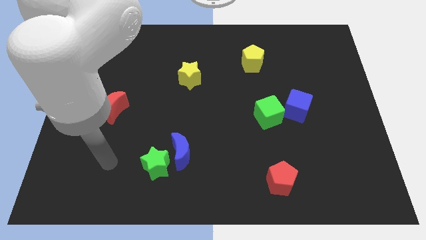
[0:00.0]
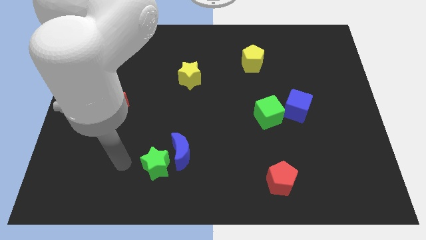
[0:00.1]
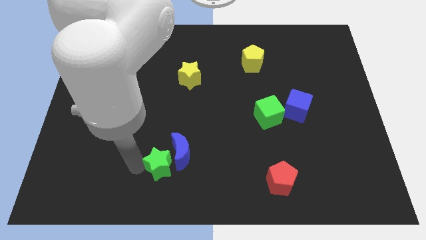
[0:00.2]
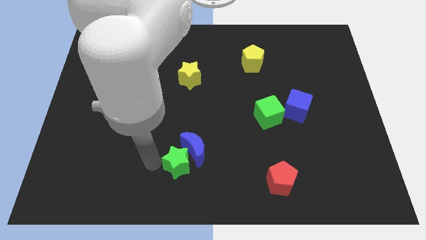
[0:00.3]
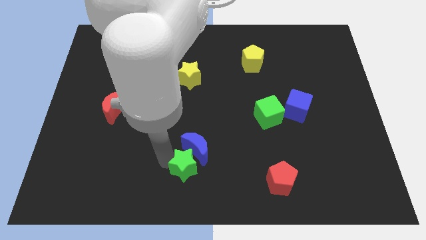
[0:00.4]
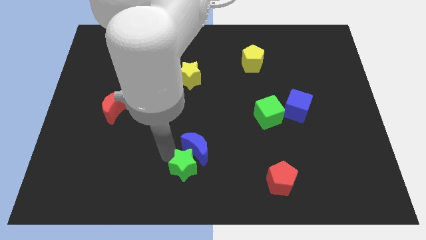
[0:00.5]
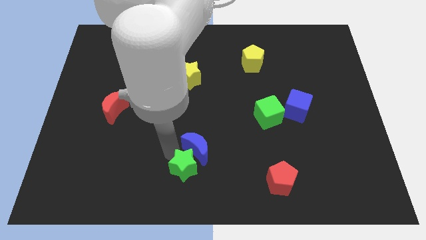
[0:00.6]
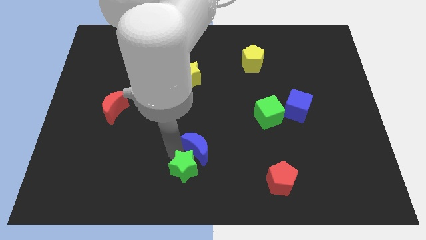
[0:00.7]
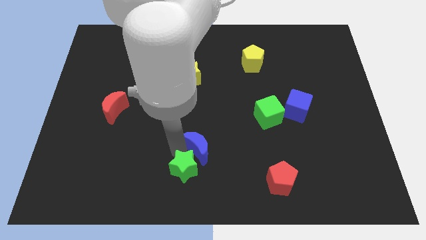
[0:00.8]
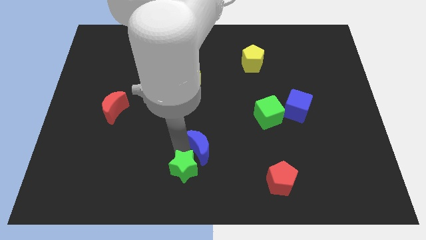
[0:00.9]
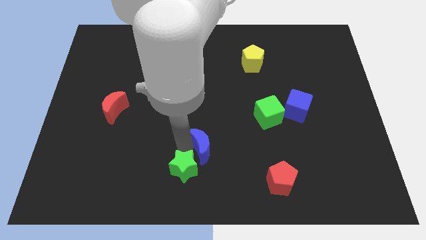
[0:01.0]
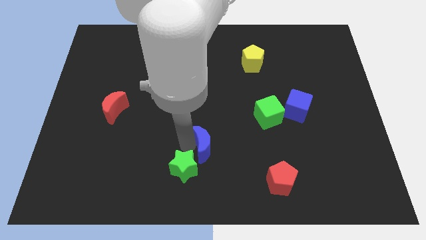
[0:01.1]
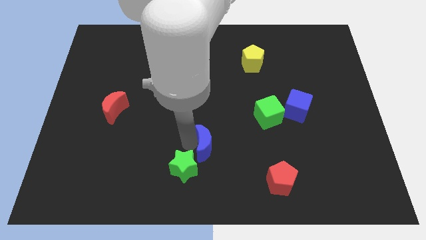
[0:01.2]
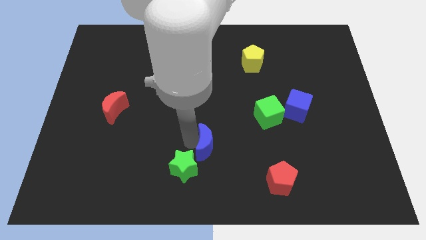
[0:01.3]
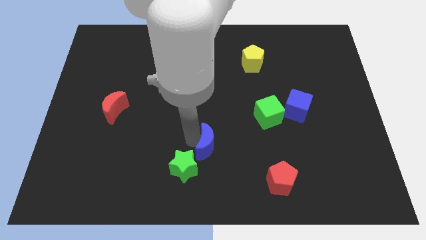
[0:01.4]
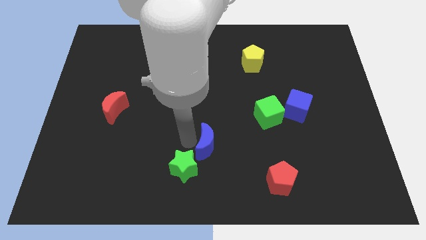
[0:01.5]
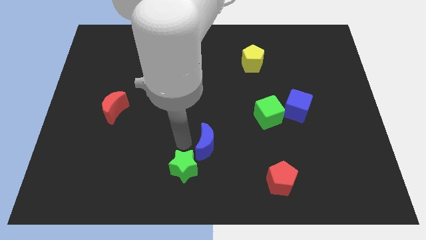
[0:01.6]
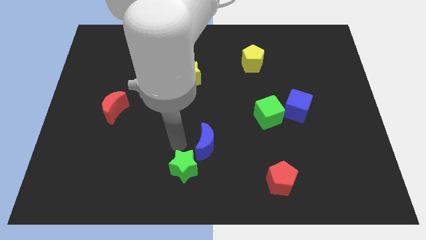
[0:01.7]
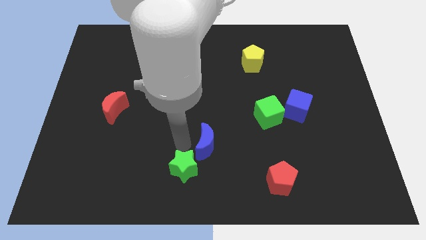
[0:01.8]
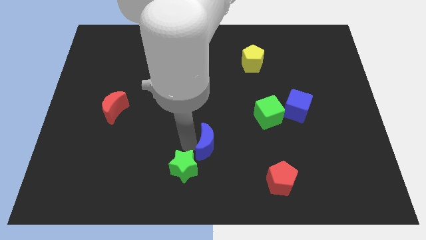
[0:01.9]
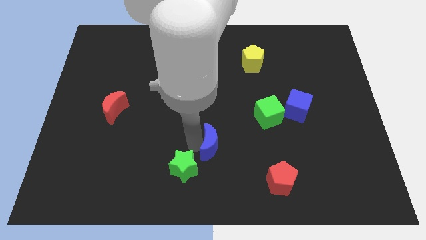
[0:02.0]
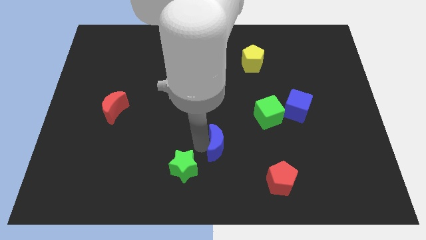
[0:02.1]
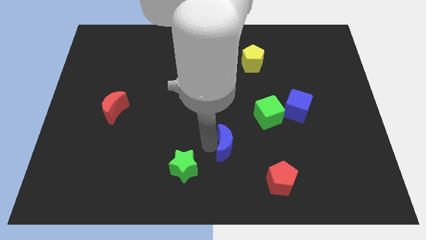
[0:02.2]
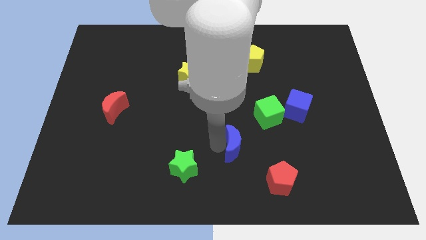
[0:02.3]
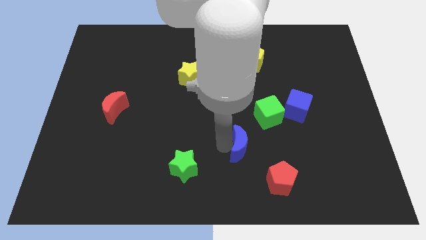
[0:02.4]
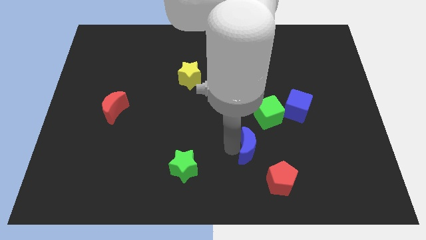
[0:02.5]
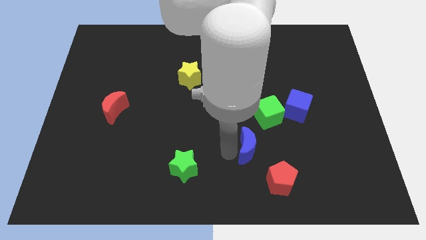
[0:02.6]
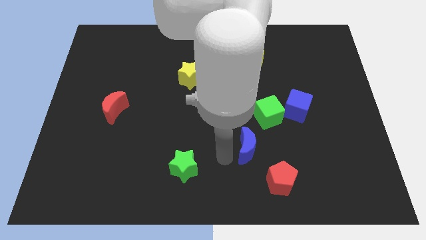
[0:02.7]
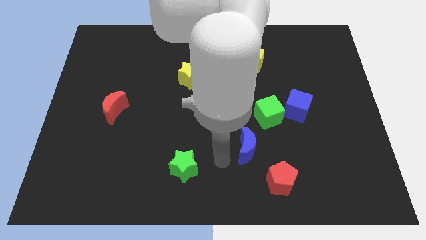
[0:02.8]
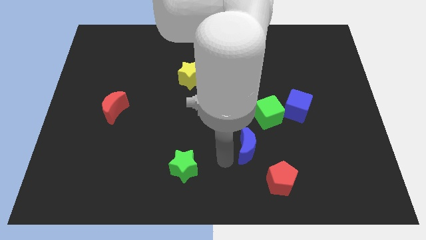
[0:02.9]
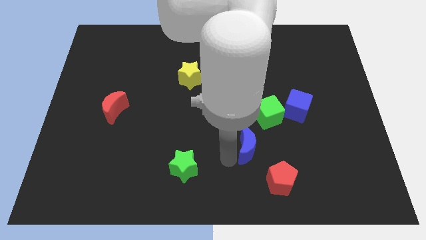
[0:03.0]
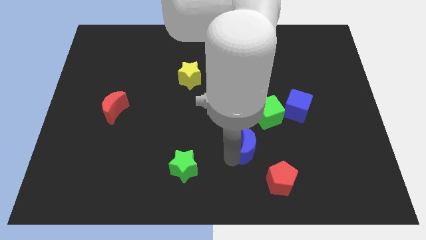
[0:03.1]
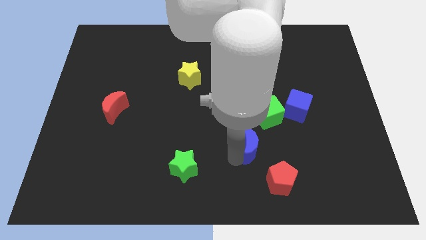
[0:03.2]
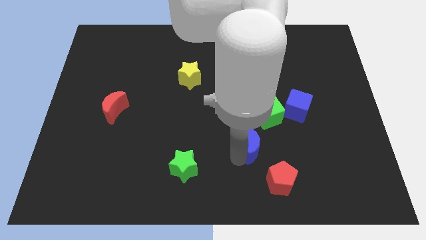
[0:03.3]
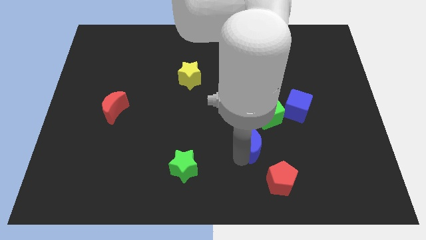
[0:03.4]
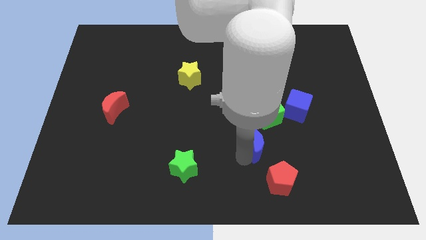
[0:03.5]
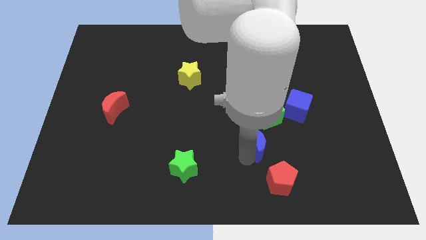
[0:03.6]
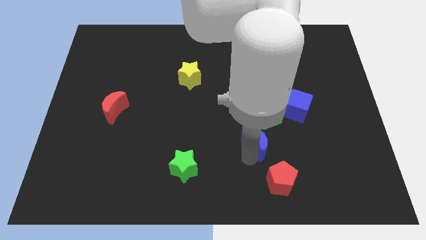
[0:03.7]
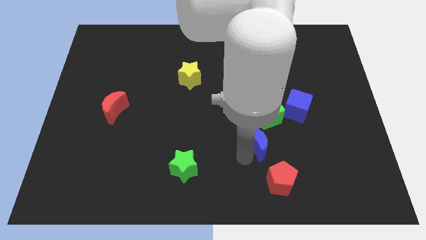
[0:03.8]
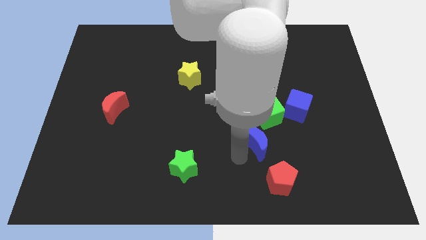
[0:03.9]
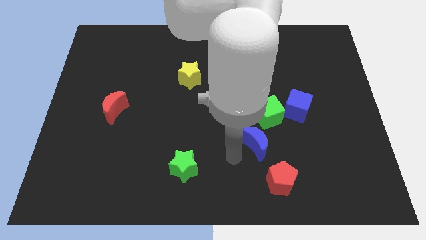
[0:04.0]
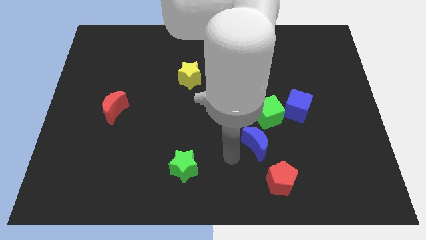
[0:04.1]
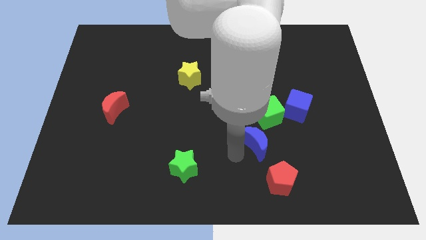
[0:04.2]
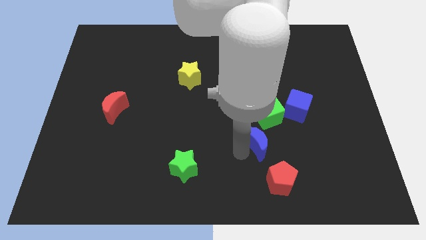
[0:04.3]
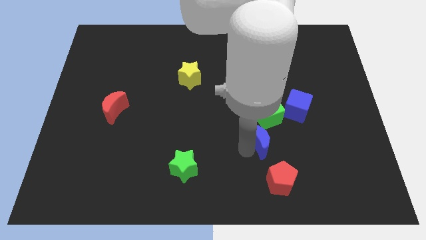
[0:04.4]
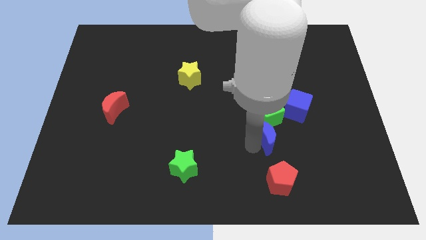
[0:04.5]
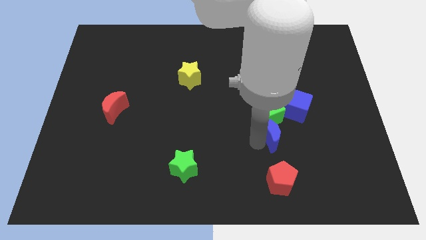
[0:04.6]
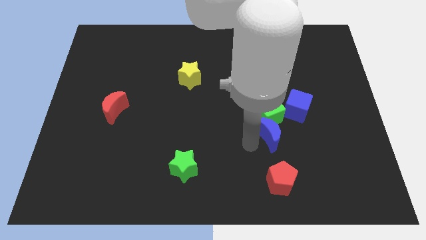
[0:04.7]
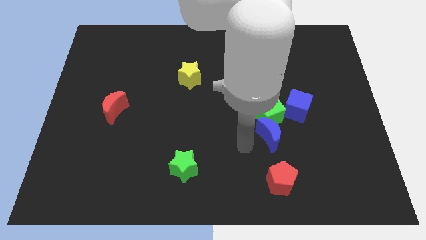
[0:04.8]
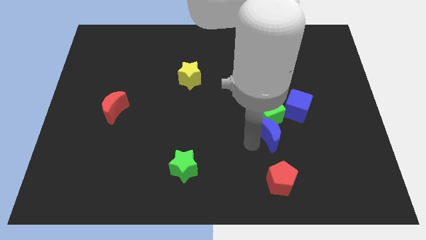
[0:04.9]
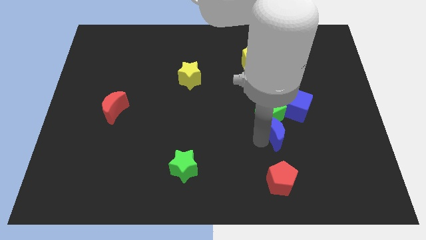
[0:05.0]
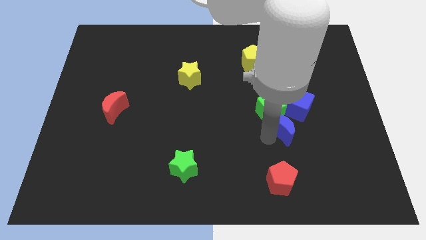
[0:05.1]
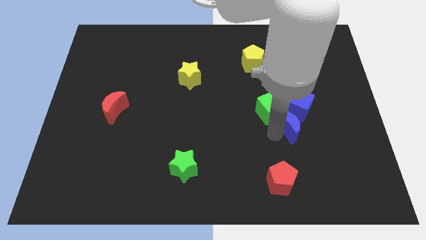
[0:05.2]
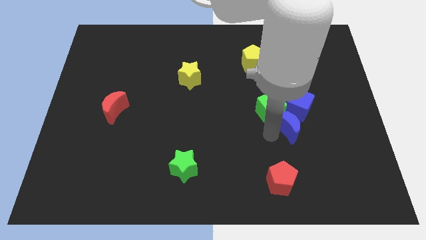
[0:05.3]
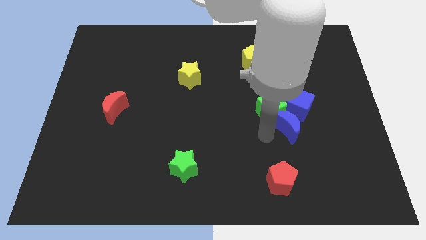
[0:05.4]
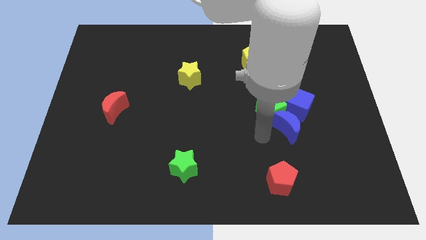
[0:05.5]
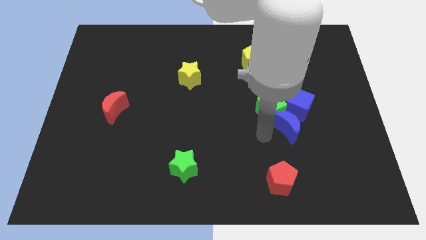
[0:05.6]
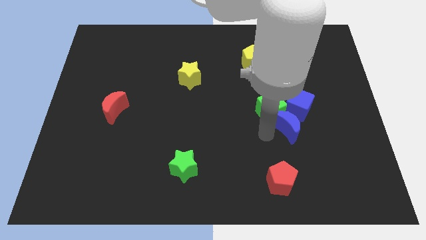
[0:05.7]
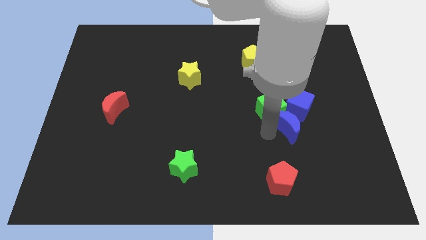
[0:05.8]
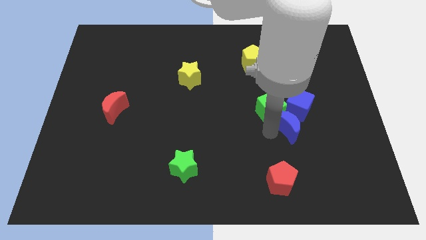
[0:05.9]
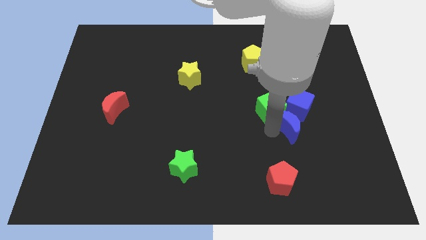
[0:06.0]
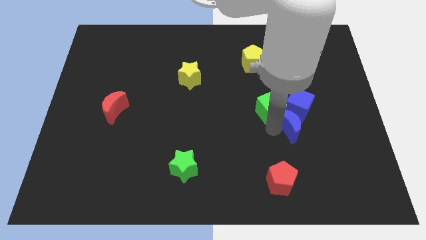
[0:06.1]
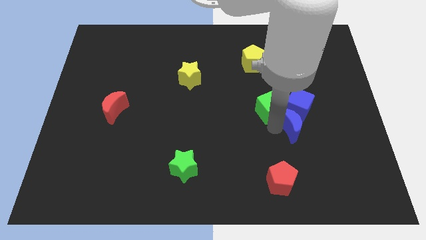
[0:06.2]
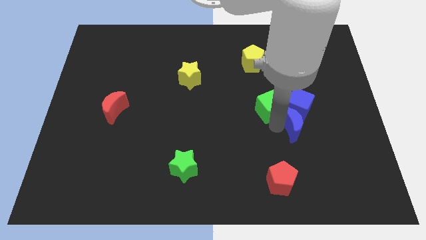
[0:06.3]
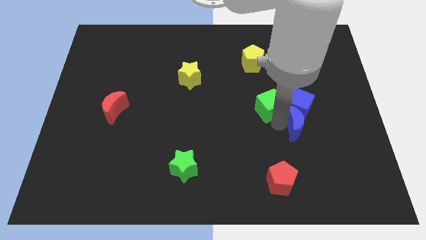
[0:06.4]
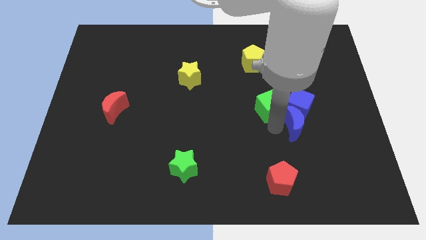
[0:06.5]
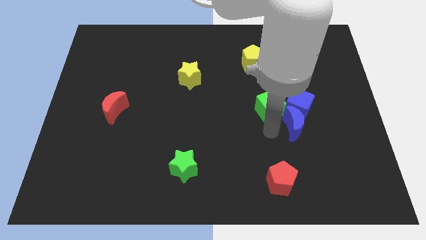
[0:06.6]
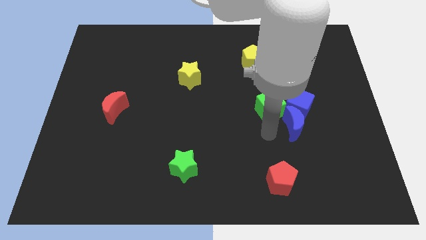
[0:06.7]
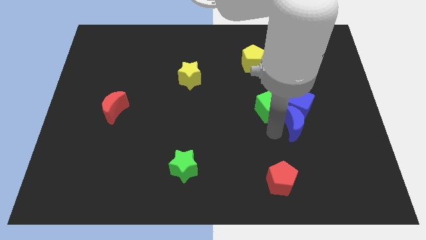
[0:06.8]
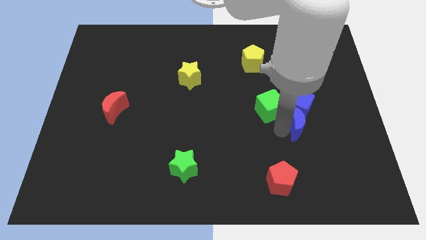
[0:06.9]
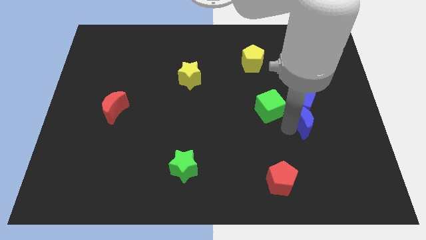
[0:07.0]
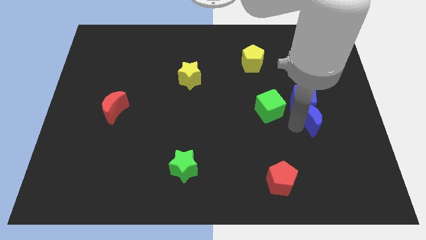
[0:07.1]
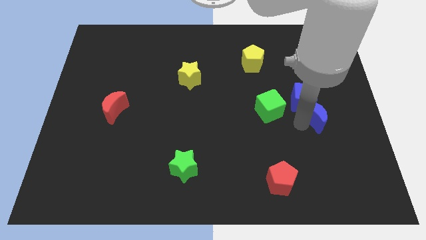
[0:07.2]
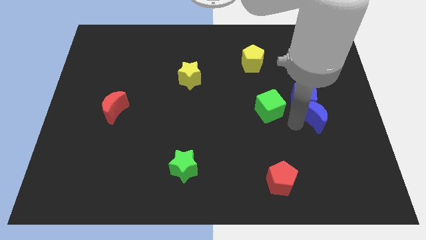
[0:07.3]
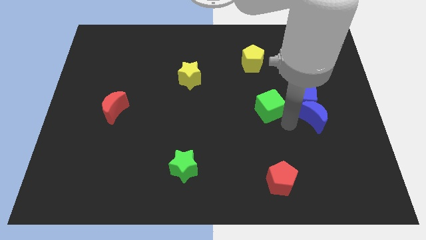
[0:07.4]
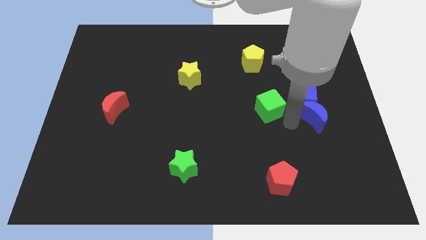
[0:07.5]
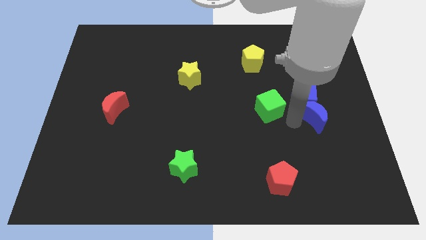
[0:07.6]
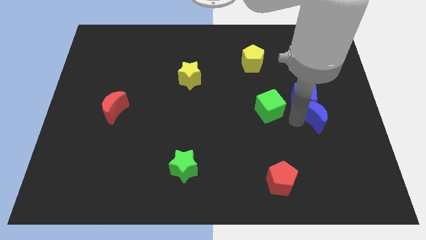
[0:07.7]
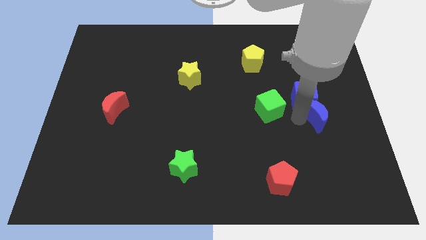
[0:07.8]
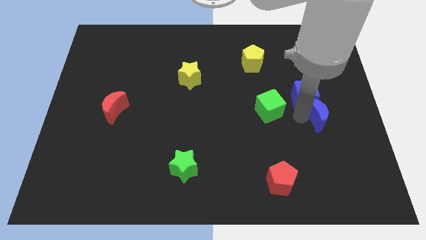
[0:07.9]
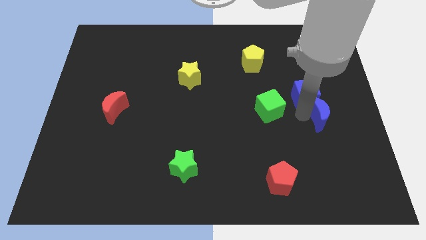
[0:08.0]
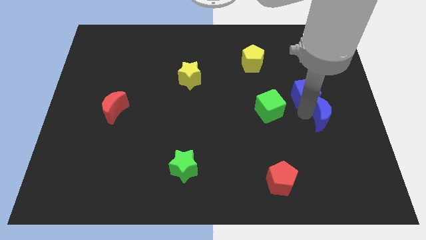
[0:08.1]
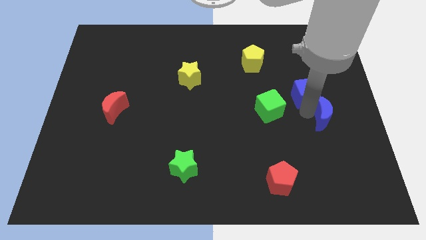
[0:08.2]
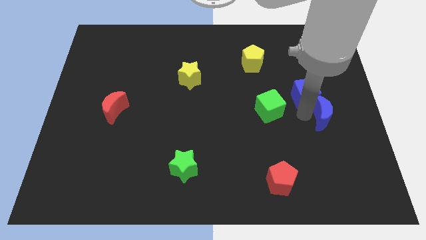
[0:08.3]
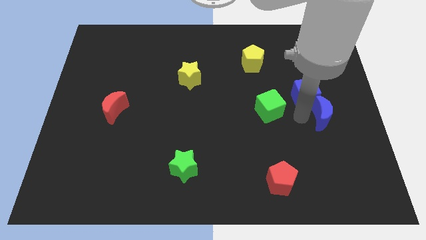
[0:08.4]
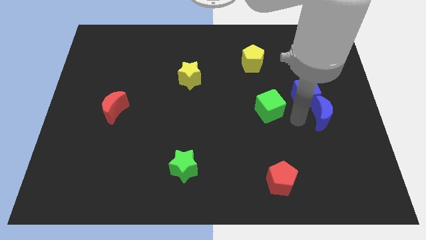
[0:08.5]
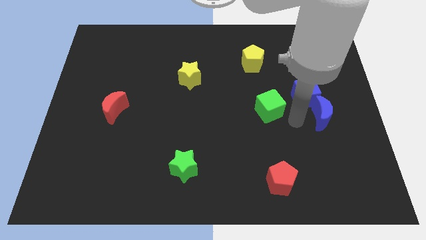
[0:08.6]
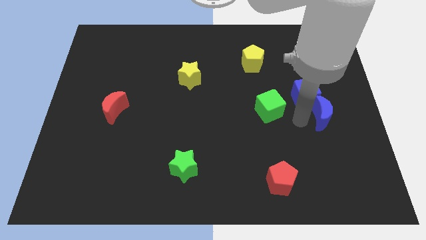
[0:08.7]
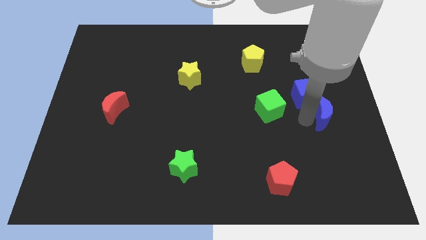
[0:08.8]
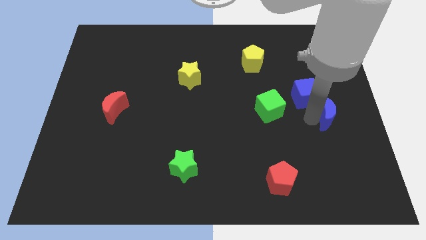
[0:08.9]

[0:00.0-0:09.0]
slide the blue moon to the center right
